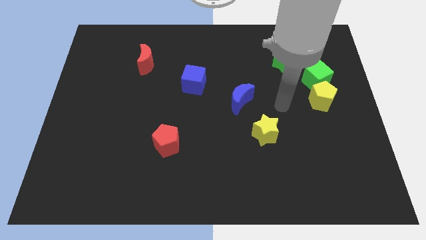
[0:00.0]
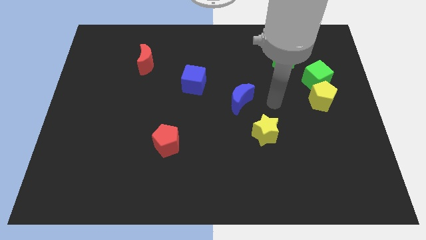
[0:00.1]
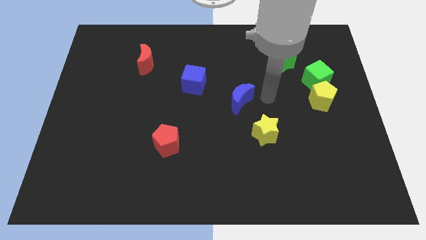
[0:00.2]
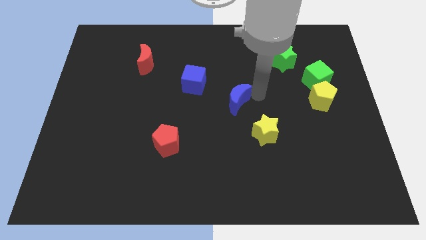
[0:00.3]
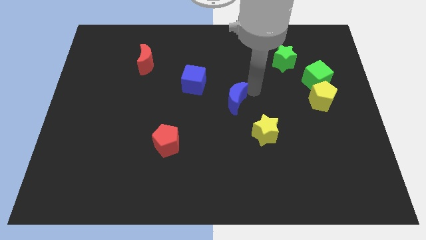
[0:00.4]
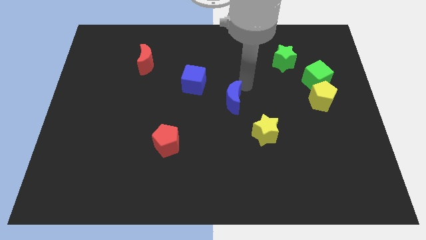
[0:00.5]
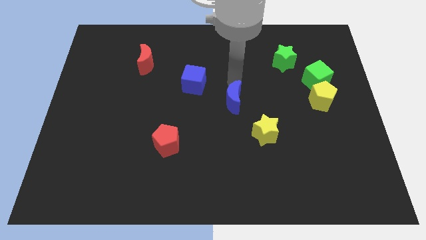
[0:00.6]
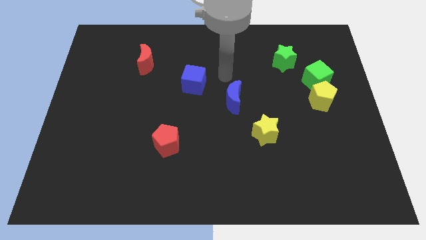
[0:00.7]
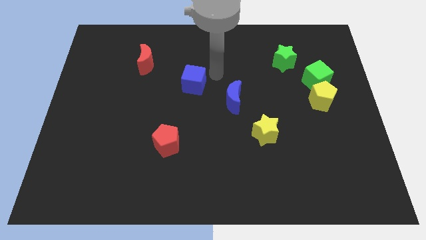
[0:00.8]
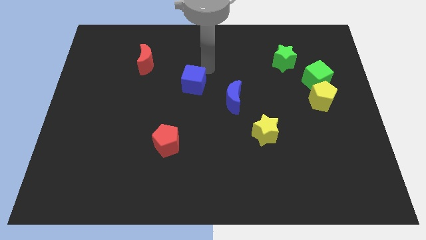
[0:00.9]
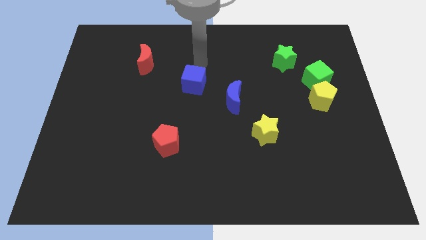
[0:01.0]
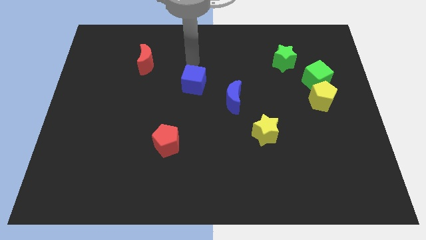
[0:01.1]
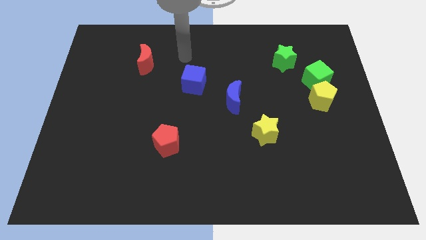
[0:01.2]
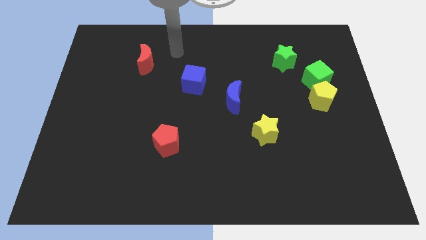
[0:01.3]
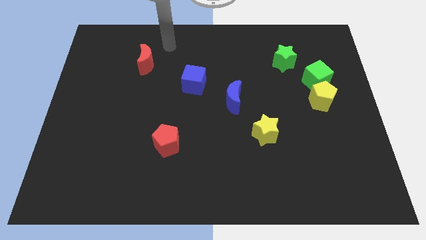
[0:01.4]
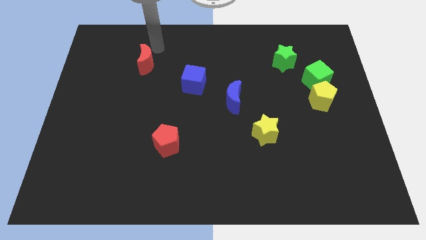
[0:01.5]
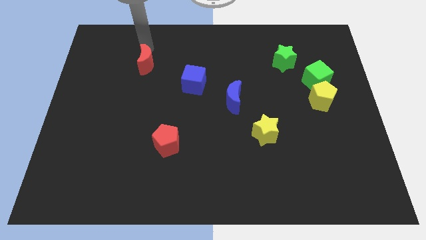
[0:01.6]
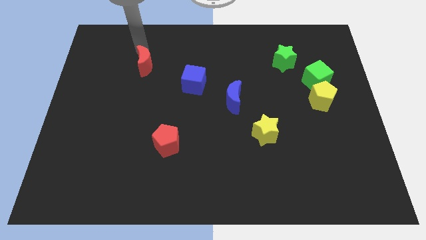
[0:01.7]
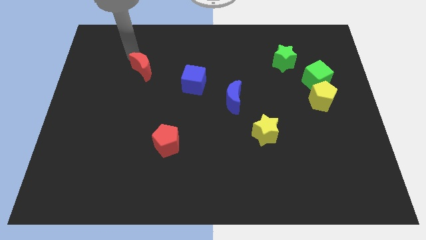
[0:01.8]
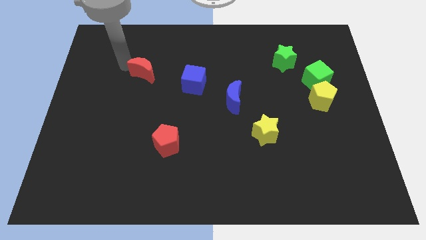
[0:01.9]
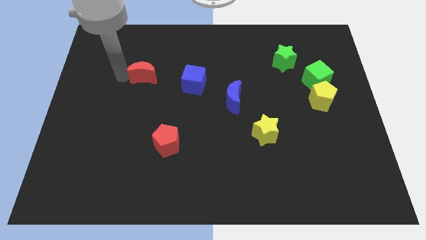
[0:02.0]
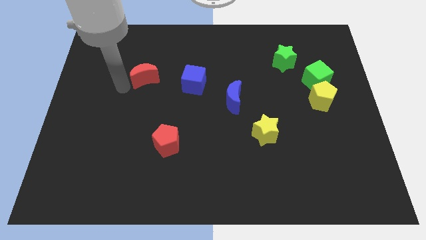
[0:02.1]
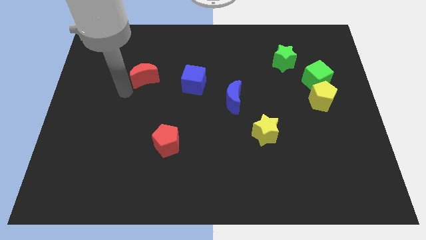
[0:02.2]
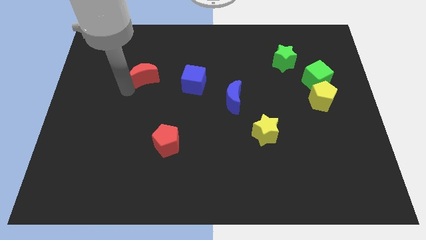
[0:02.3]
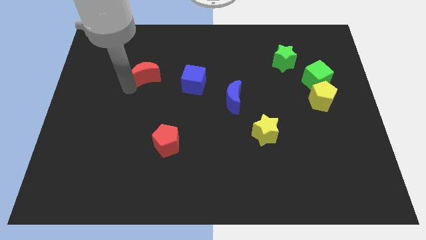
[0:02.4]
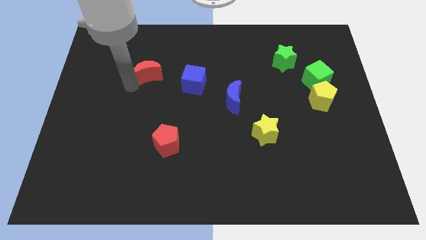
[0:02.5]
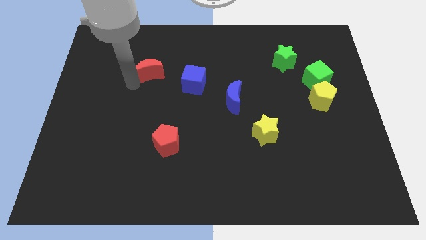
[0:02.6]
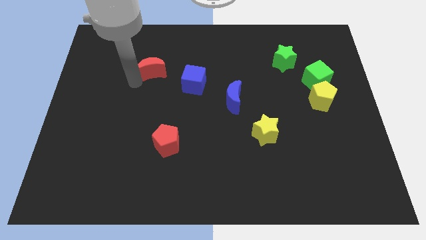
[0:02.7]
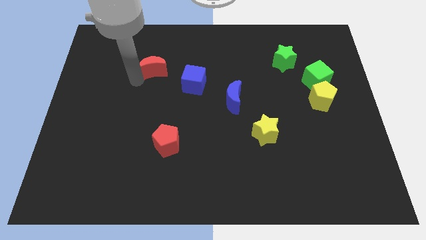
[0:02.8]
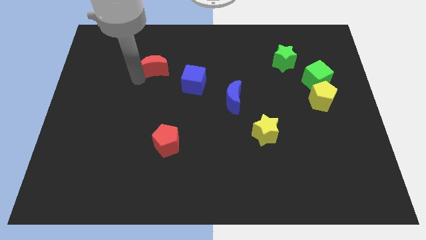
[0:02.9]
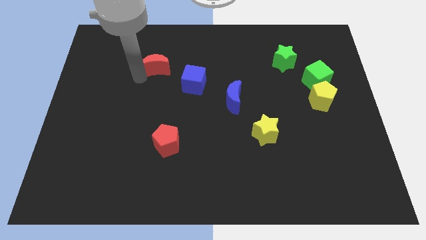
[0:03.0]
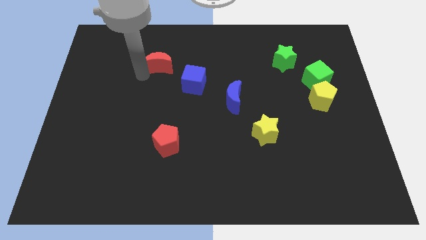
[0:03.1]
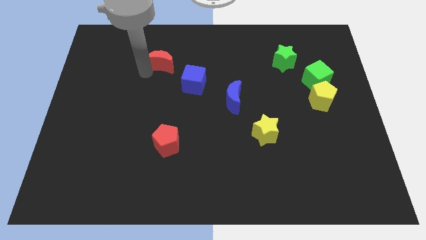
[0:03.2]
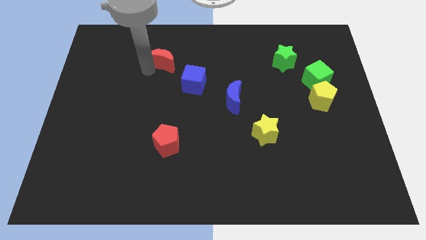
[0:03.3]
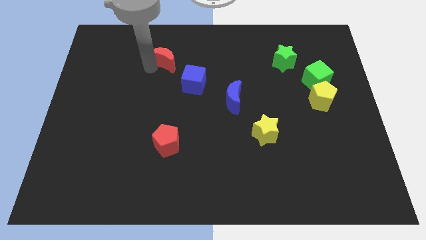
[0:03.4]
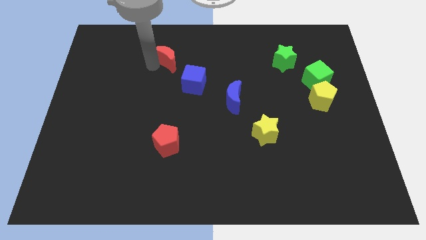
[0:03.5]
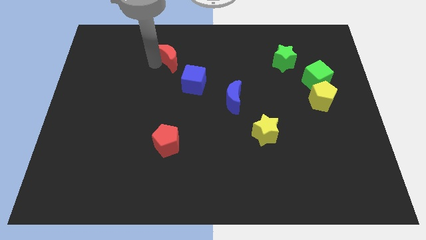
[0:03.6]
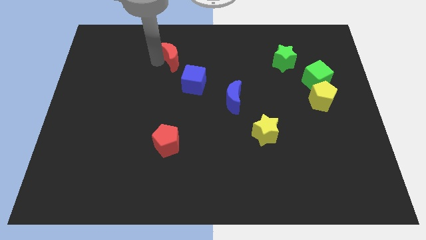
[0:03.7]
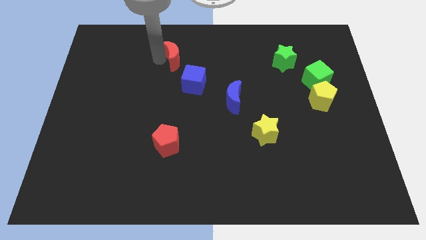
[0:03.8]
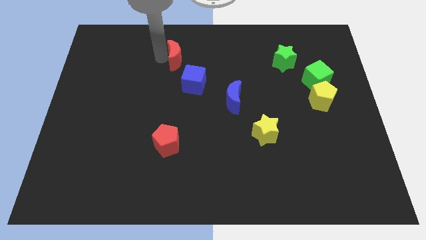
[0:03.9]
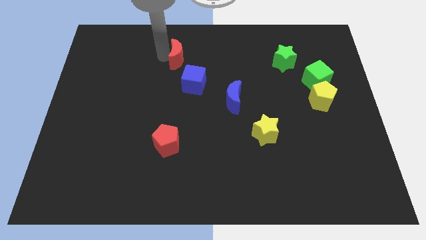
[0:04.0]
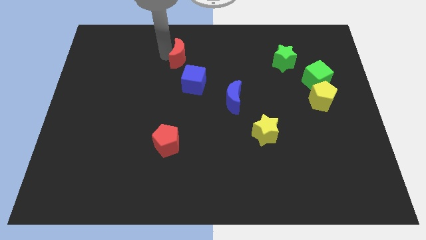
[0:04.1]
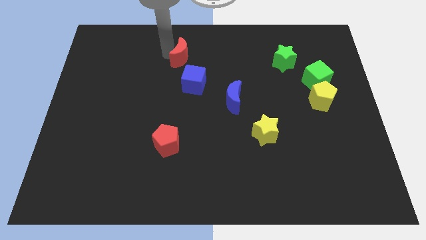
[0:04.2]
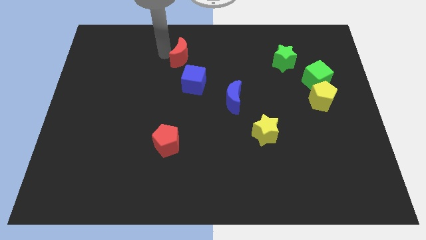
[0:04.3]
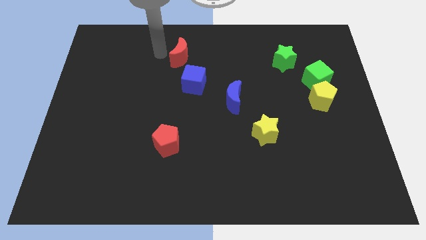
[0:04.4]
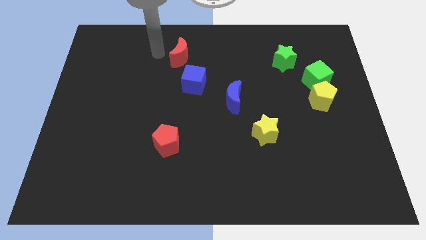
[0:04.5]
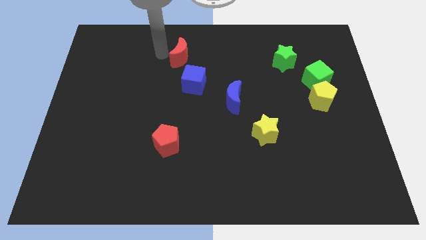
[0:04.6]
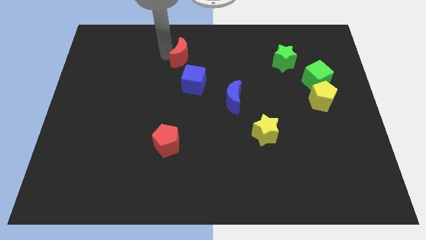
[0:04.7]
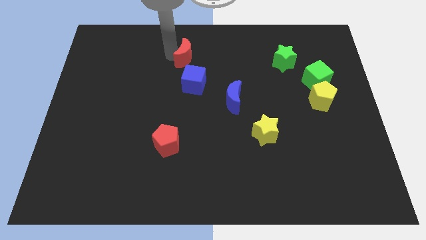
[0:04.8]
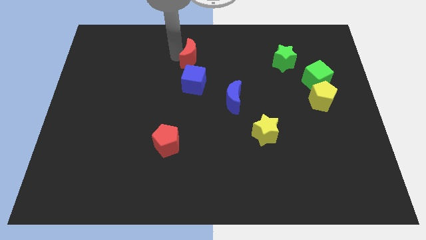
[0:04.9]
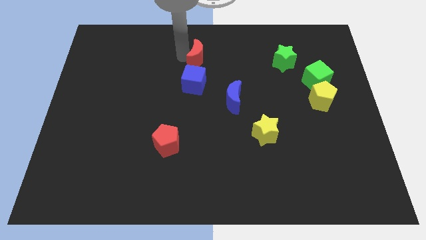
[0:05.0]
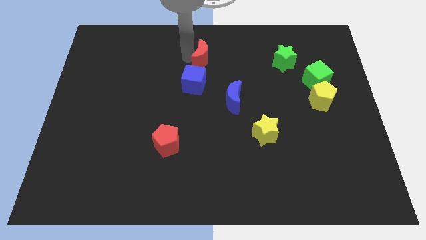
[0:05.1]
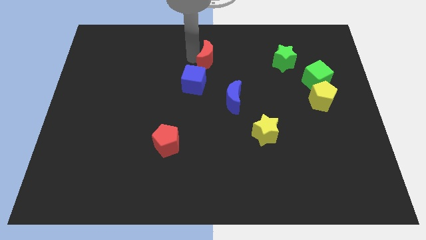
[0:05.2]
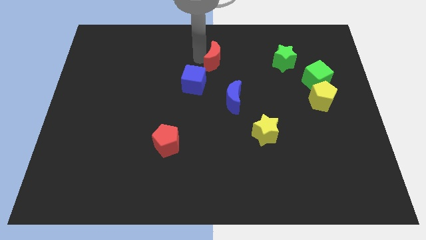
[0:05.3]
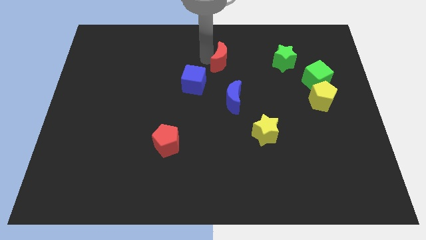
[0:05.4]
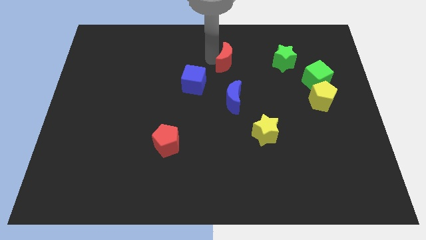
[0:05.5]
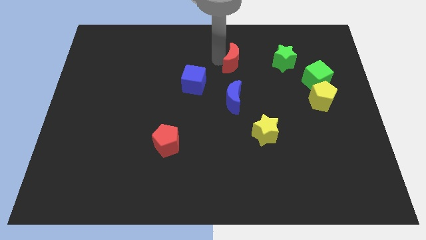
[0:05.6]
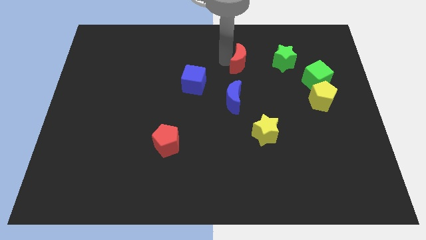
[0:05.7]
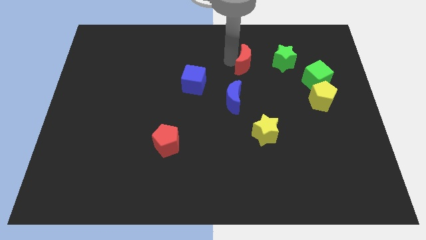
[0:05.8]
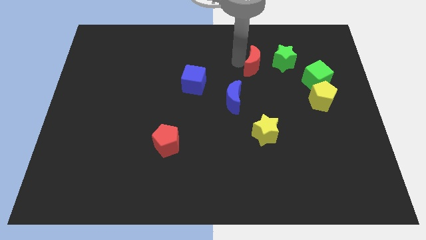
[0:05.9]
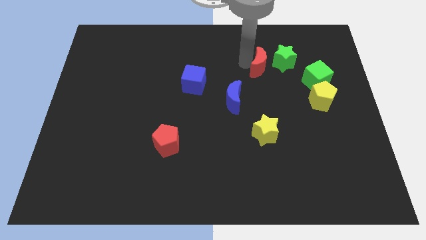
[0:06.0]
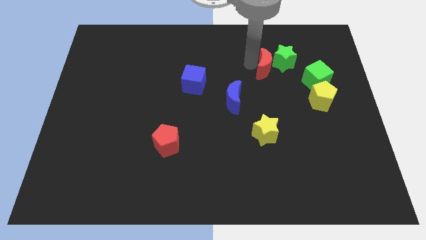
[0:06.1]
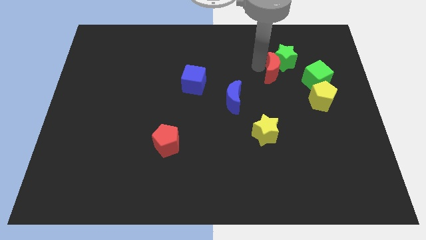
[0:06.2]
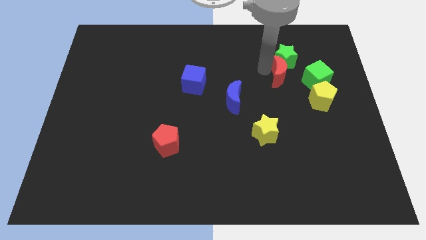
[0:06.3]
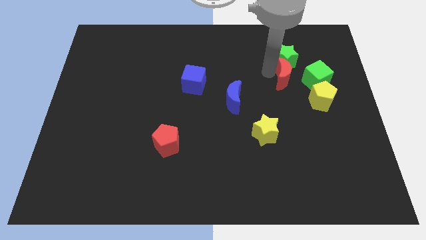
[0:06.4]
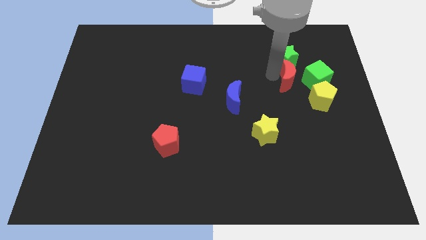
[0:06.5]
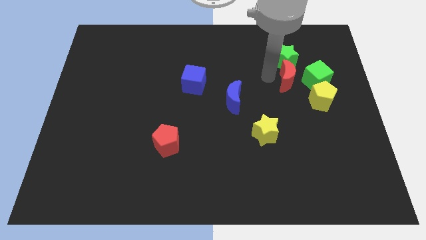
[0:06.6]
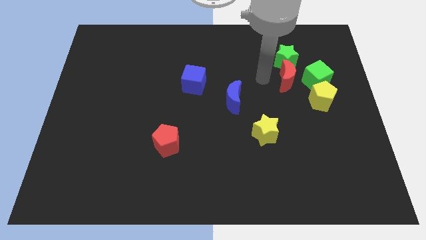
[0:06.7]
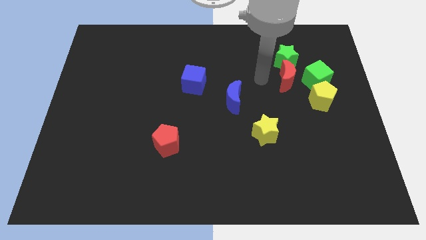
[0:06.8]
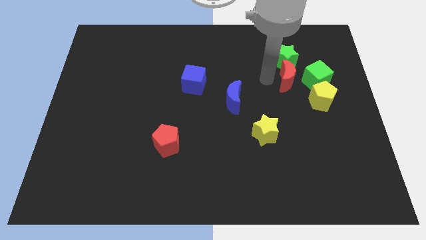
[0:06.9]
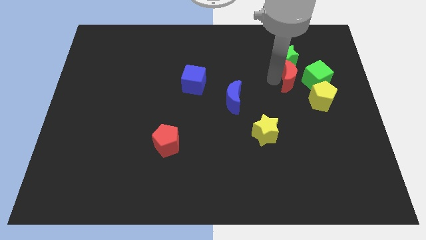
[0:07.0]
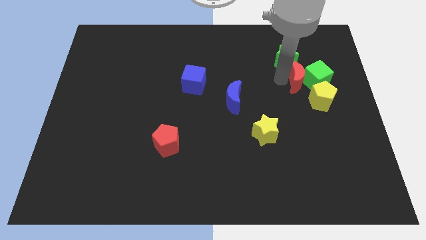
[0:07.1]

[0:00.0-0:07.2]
move the red moon close to the green cube

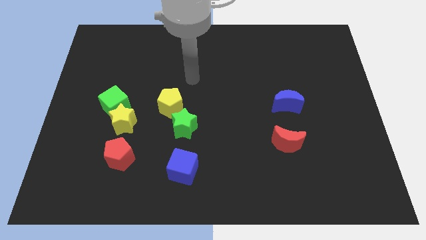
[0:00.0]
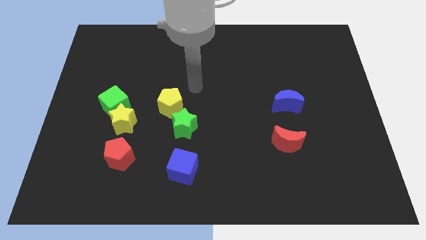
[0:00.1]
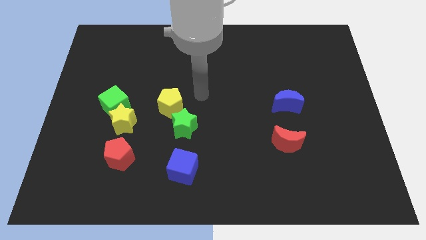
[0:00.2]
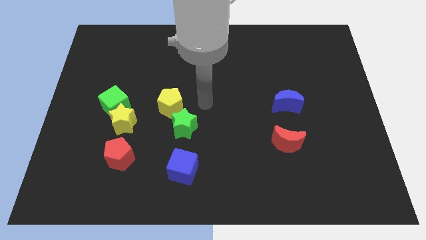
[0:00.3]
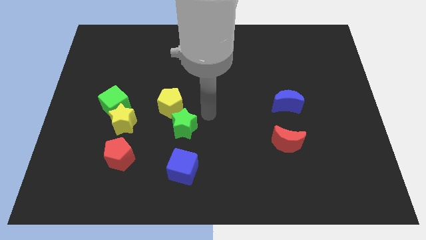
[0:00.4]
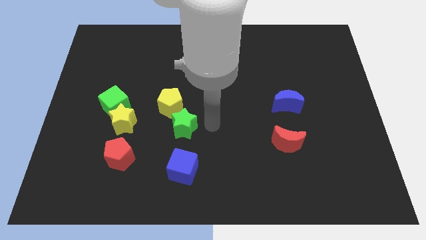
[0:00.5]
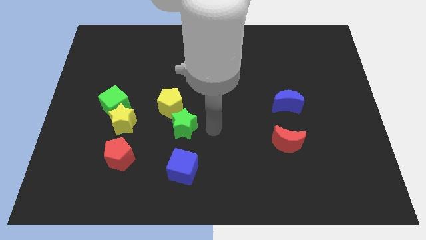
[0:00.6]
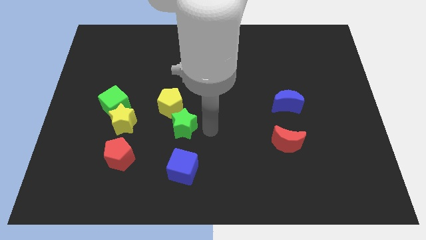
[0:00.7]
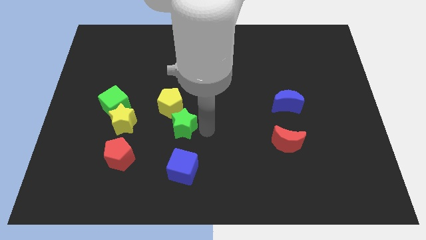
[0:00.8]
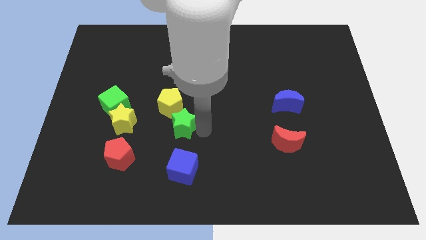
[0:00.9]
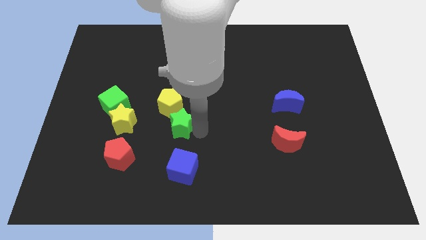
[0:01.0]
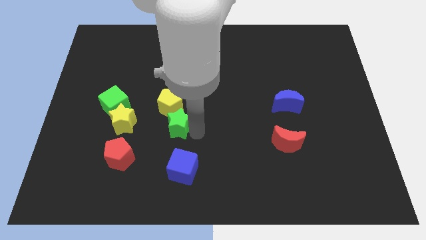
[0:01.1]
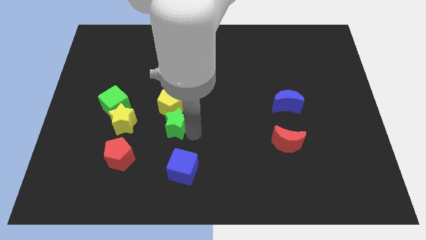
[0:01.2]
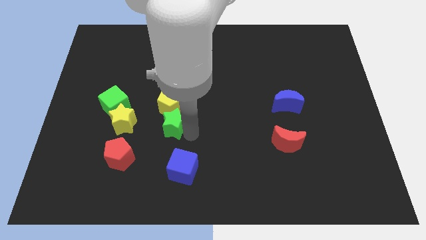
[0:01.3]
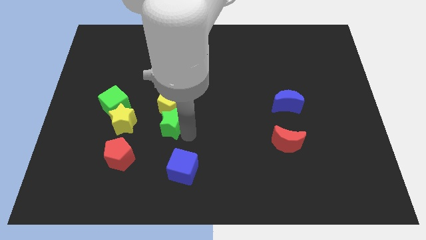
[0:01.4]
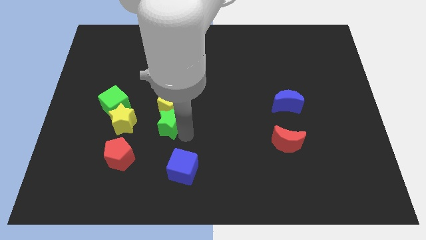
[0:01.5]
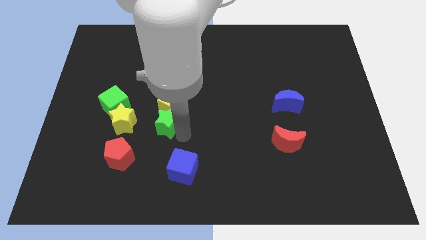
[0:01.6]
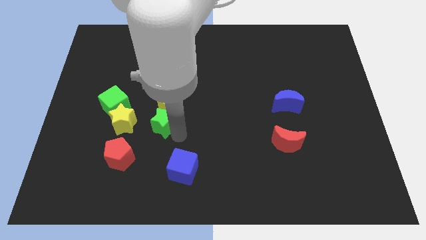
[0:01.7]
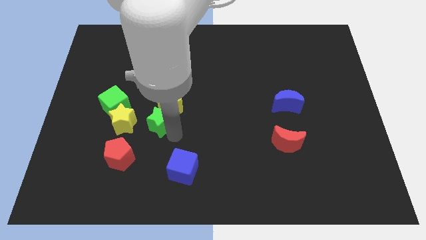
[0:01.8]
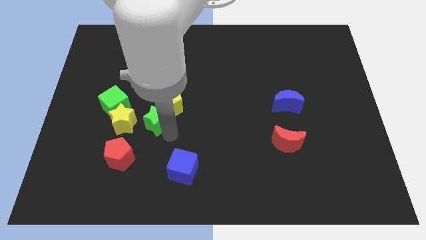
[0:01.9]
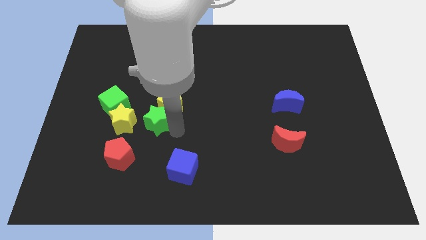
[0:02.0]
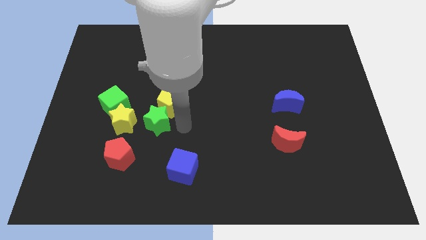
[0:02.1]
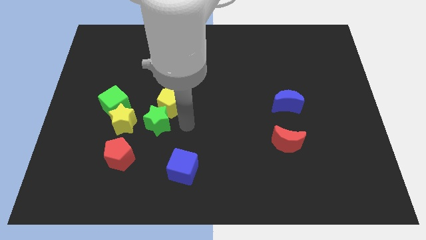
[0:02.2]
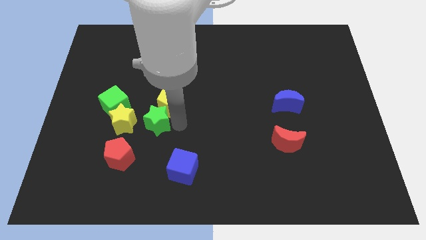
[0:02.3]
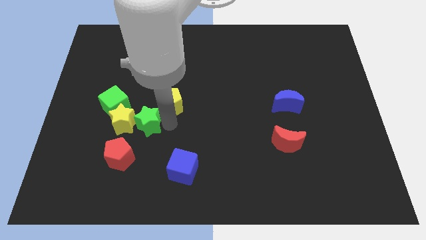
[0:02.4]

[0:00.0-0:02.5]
move the green star to the yellow star
